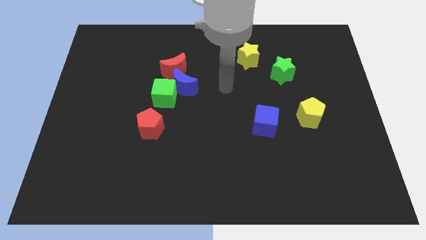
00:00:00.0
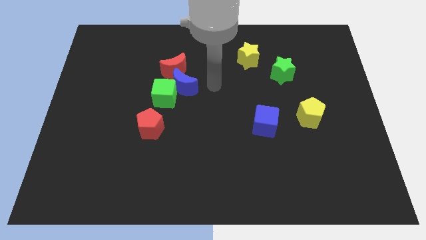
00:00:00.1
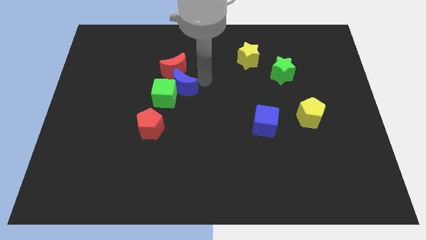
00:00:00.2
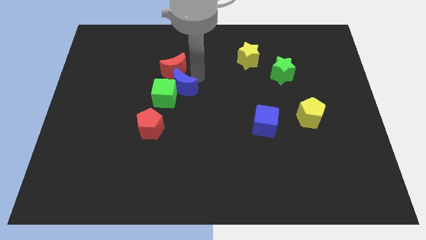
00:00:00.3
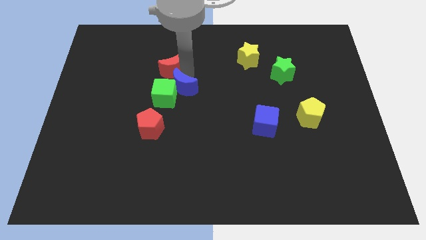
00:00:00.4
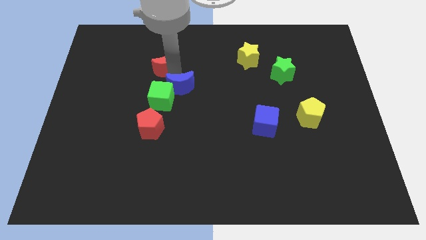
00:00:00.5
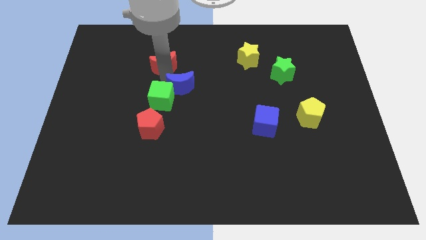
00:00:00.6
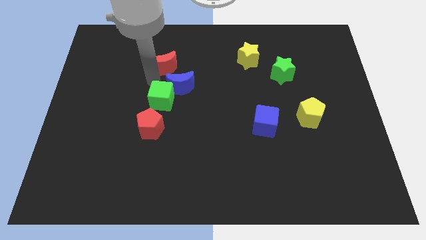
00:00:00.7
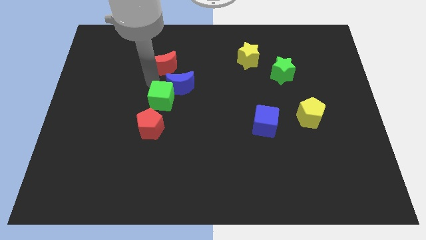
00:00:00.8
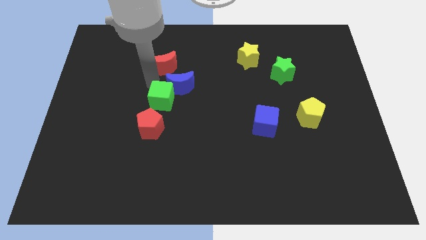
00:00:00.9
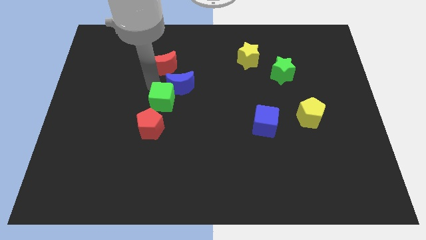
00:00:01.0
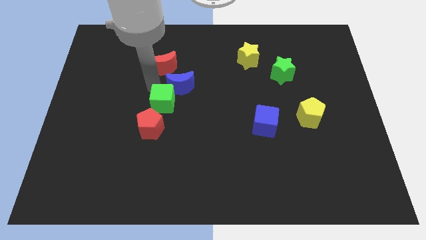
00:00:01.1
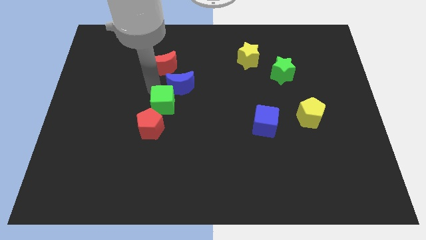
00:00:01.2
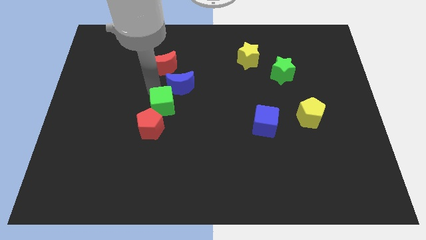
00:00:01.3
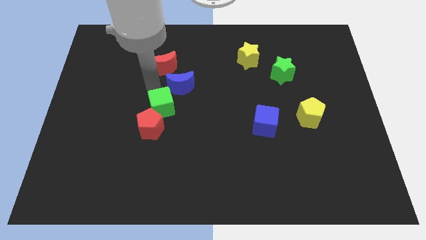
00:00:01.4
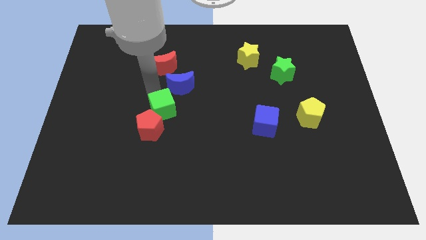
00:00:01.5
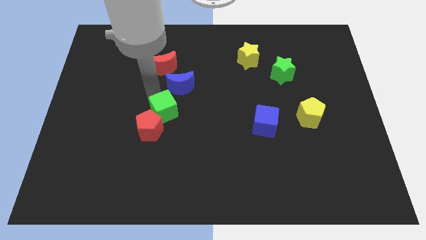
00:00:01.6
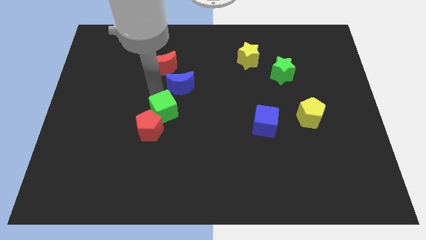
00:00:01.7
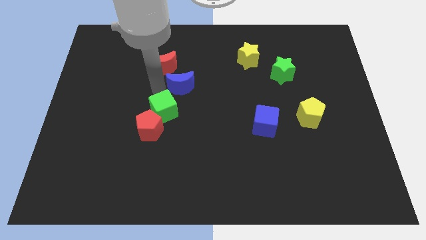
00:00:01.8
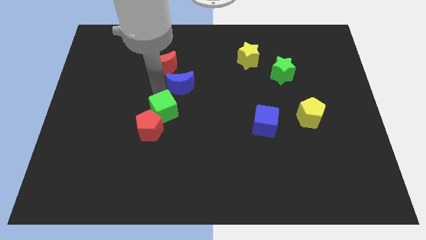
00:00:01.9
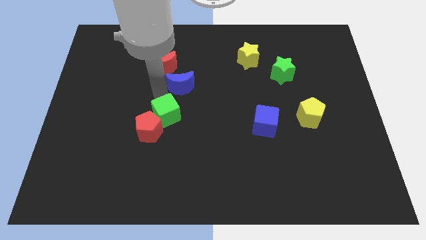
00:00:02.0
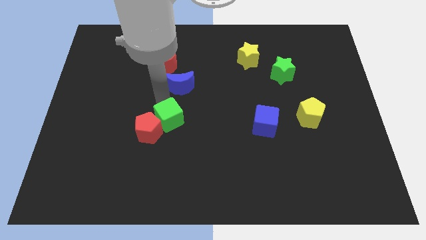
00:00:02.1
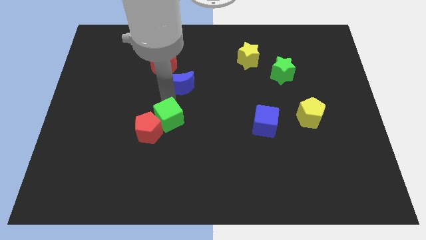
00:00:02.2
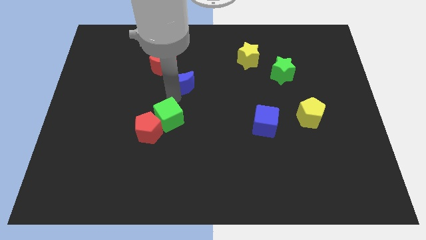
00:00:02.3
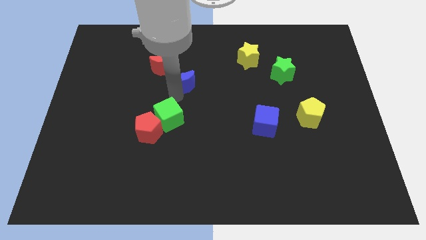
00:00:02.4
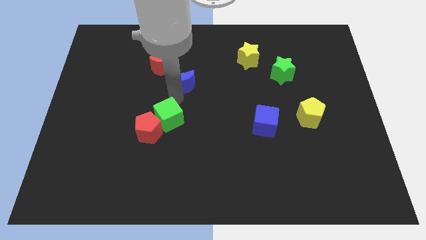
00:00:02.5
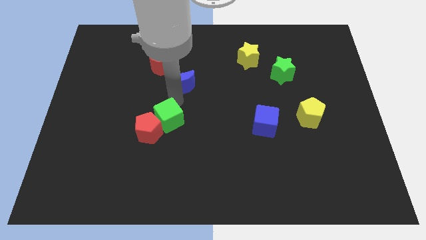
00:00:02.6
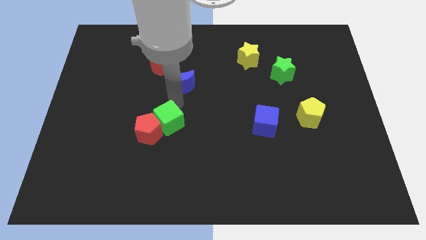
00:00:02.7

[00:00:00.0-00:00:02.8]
move the green cube down a little

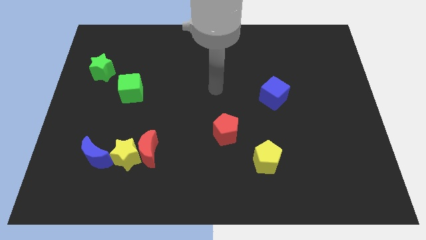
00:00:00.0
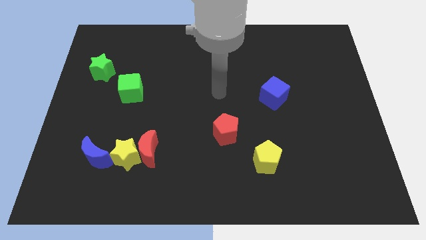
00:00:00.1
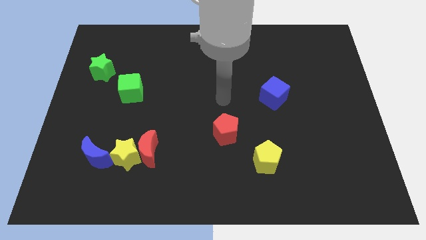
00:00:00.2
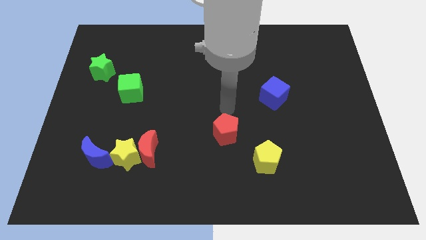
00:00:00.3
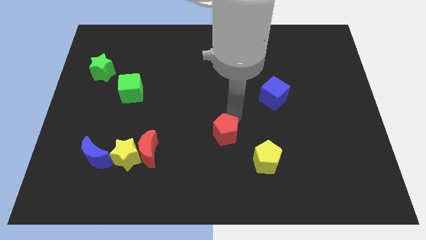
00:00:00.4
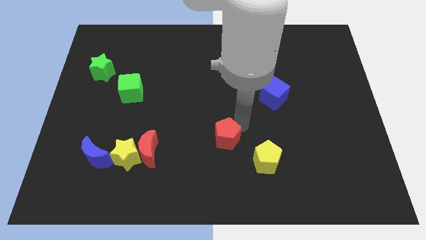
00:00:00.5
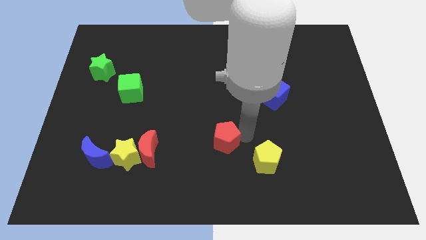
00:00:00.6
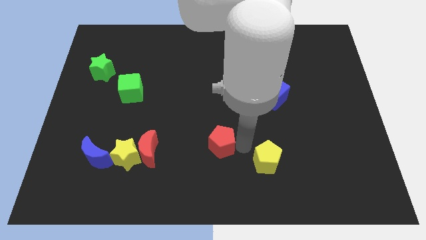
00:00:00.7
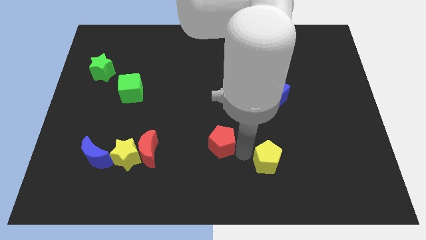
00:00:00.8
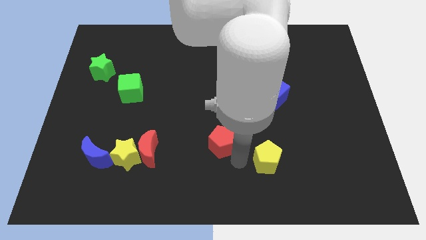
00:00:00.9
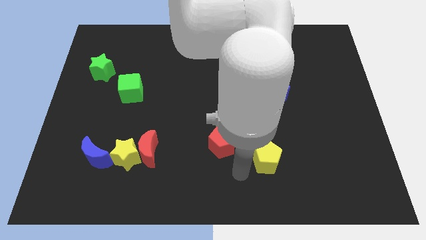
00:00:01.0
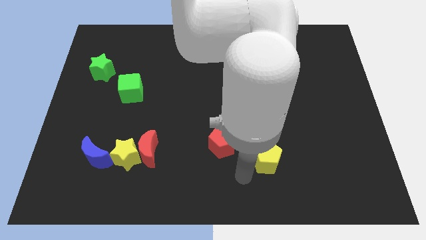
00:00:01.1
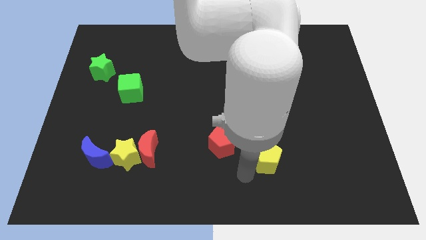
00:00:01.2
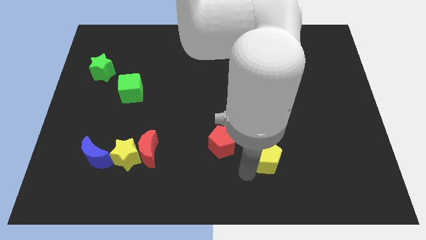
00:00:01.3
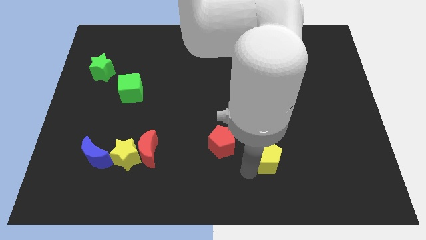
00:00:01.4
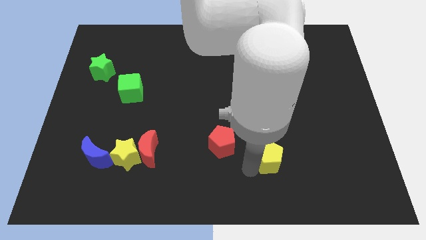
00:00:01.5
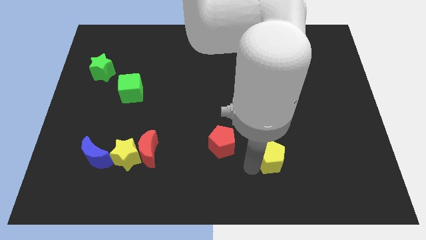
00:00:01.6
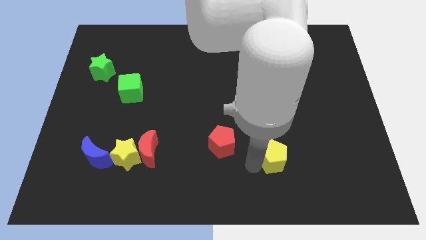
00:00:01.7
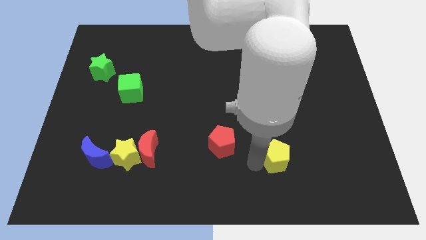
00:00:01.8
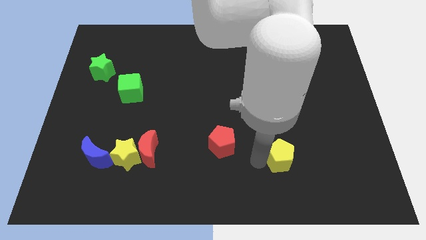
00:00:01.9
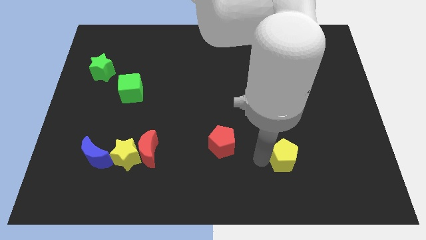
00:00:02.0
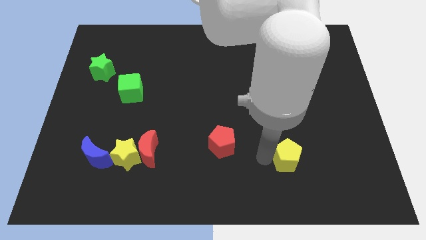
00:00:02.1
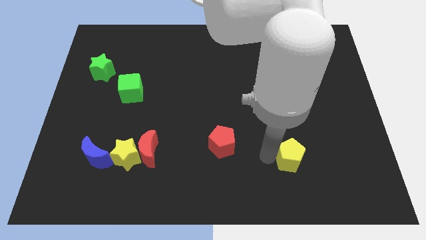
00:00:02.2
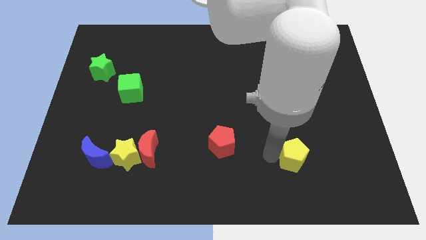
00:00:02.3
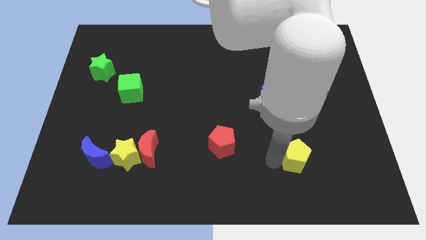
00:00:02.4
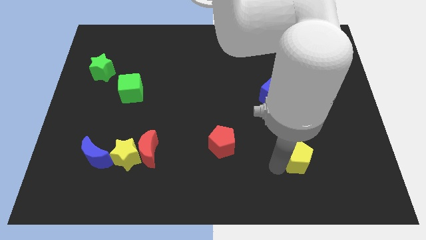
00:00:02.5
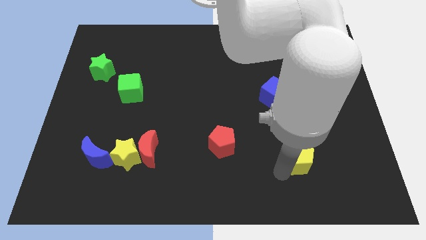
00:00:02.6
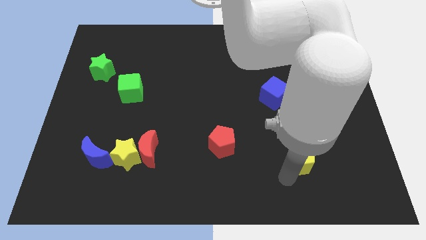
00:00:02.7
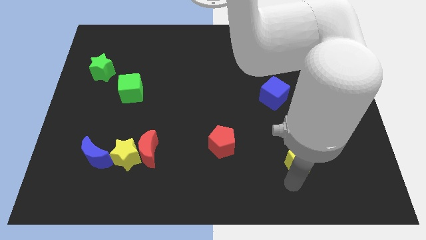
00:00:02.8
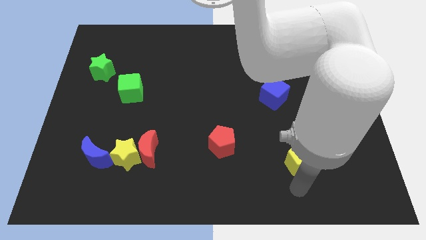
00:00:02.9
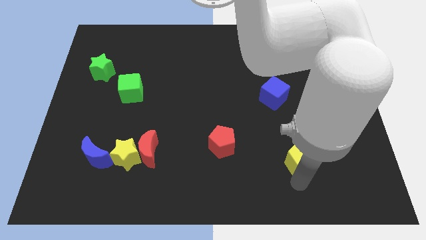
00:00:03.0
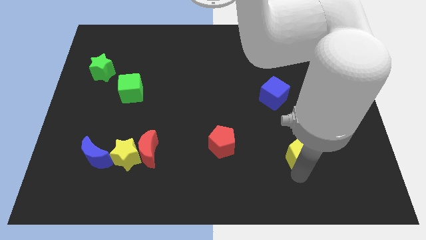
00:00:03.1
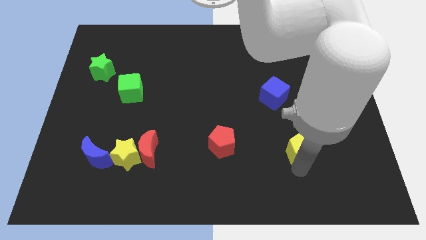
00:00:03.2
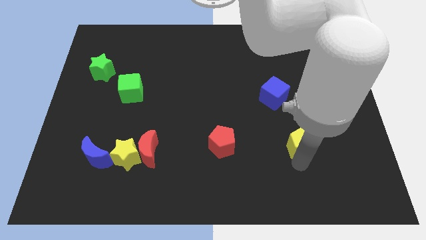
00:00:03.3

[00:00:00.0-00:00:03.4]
move the yellow pentagon diagonally up and right slightly

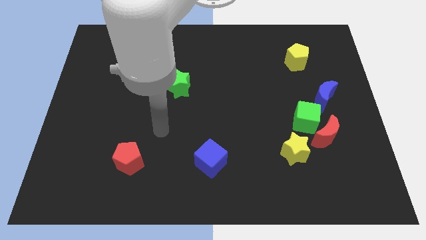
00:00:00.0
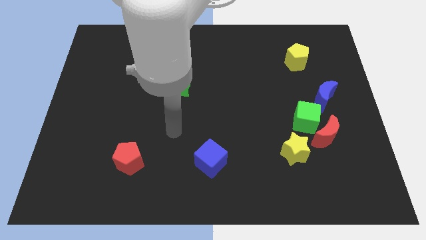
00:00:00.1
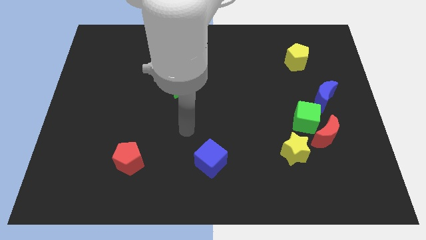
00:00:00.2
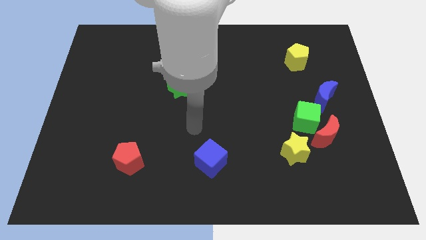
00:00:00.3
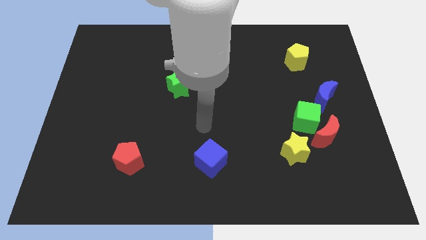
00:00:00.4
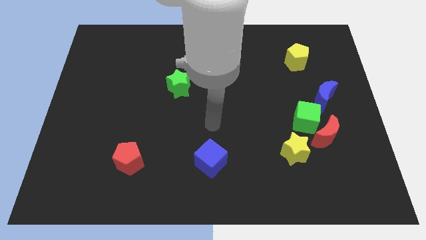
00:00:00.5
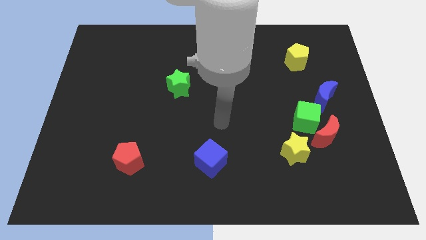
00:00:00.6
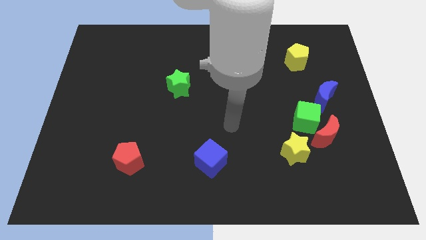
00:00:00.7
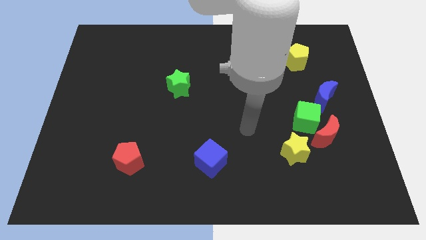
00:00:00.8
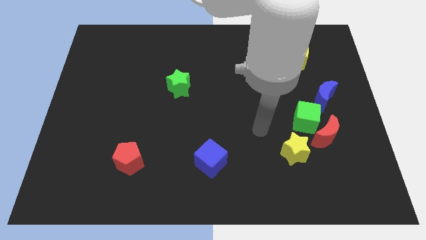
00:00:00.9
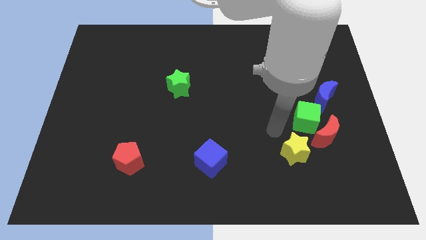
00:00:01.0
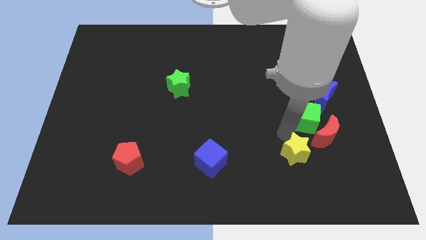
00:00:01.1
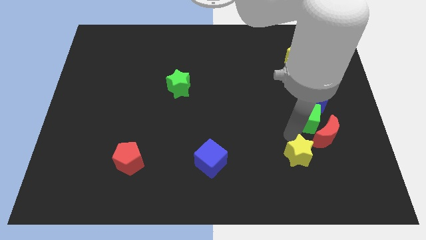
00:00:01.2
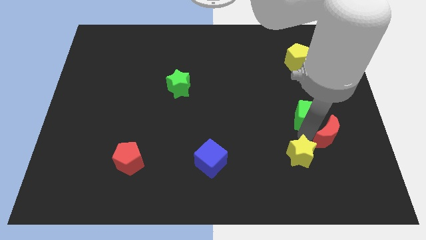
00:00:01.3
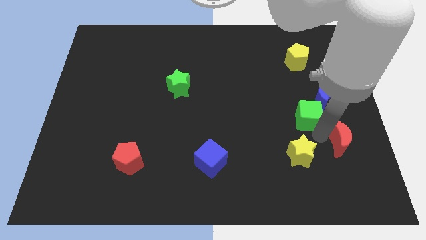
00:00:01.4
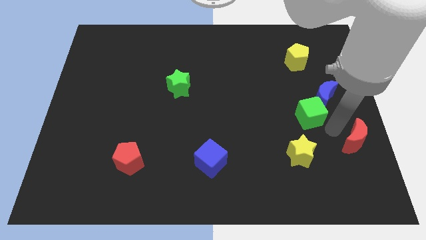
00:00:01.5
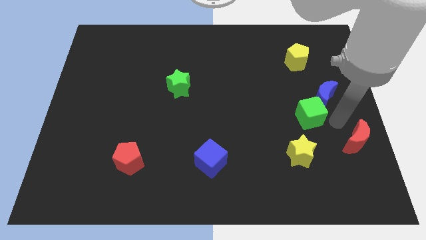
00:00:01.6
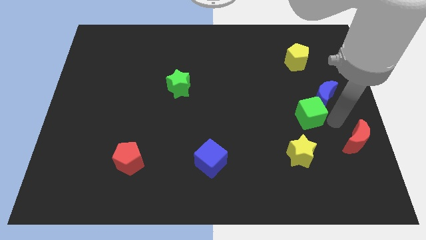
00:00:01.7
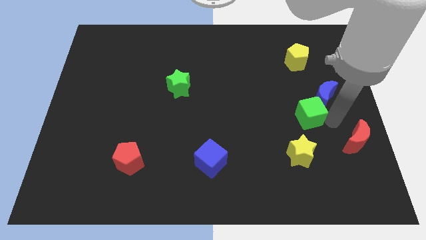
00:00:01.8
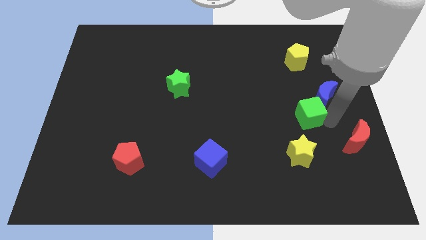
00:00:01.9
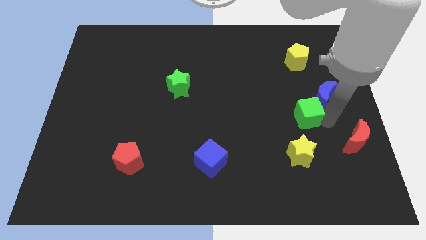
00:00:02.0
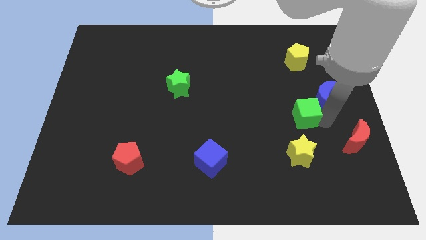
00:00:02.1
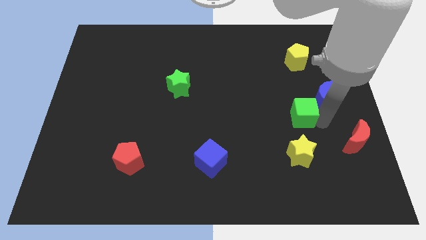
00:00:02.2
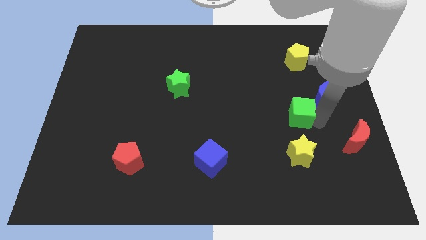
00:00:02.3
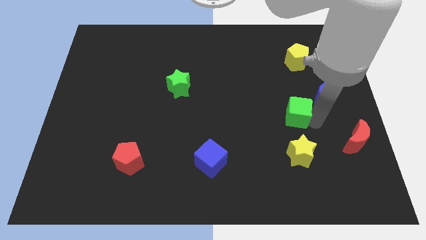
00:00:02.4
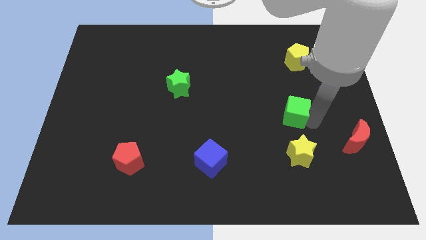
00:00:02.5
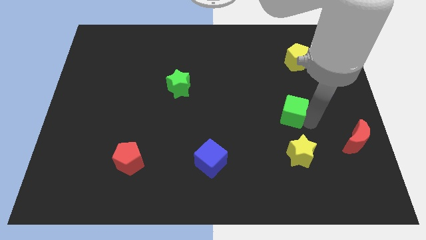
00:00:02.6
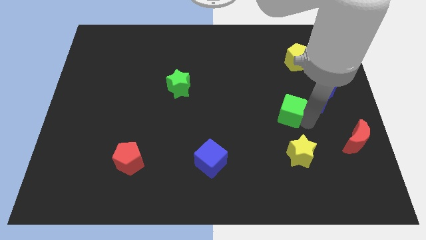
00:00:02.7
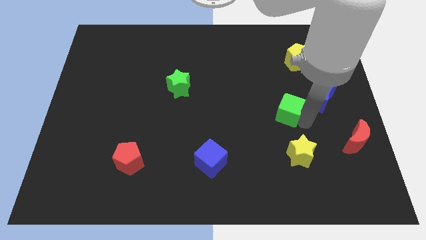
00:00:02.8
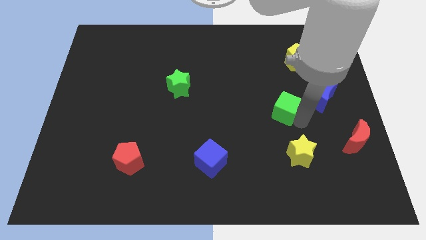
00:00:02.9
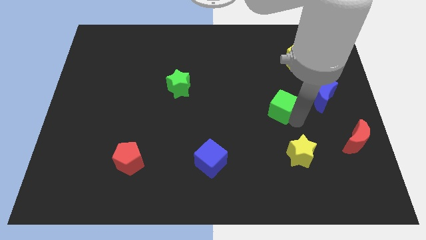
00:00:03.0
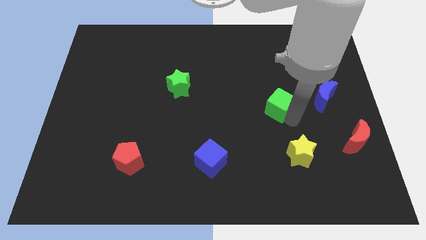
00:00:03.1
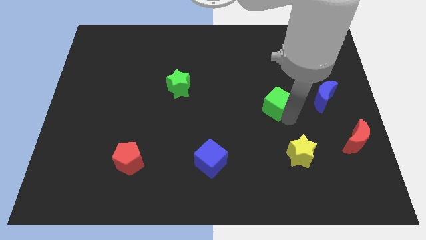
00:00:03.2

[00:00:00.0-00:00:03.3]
slightly slide the green cube upwards and to the left
